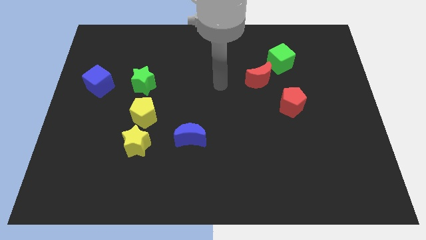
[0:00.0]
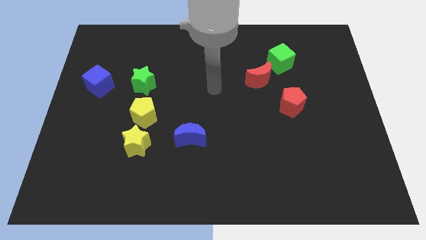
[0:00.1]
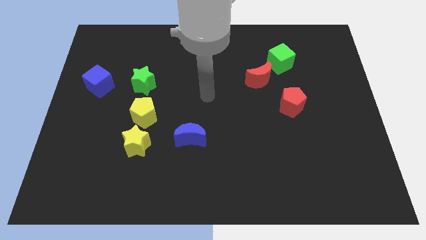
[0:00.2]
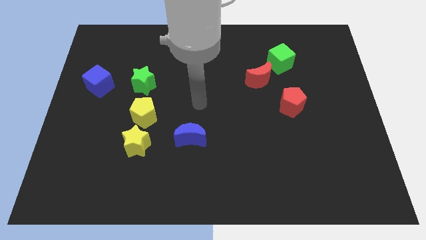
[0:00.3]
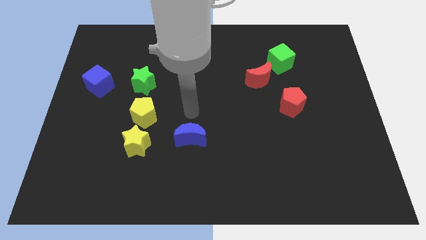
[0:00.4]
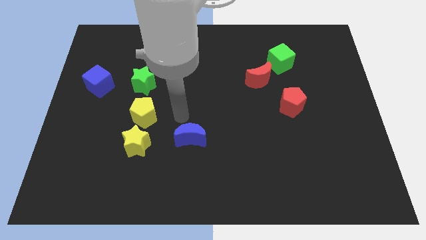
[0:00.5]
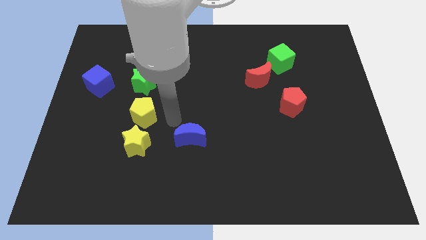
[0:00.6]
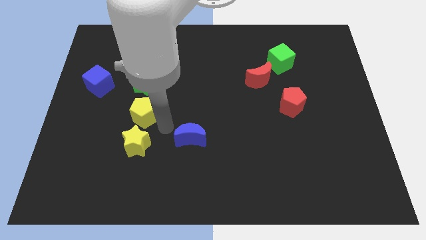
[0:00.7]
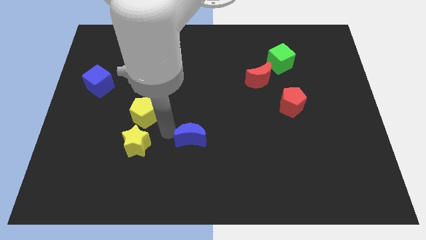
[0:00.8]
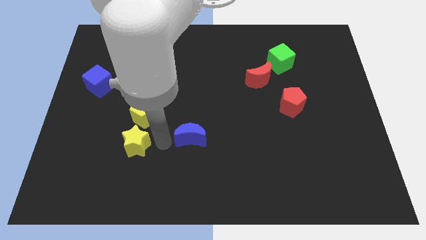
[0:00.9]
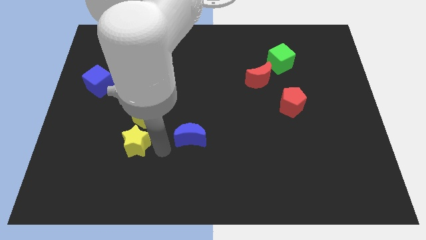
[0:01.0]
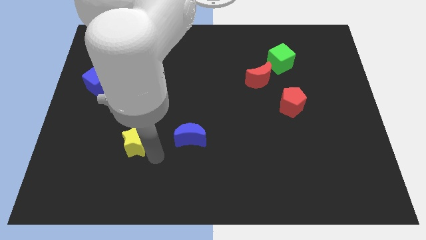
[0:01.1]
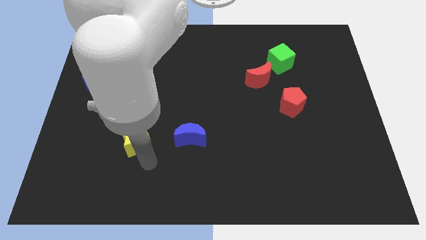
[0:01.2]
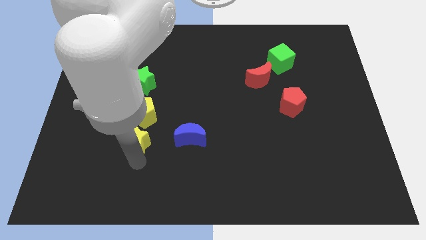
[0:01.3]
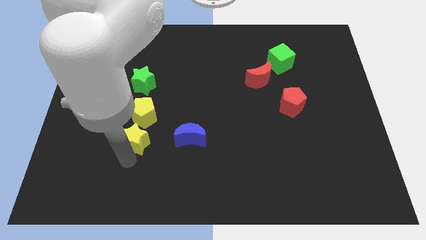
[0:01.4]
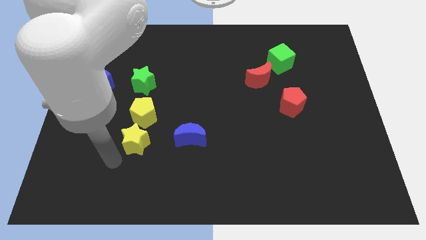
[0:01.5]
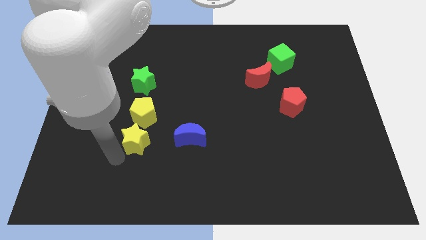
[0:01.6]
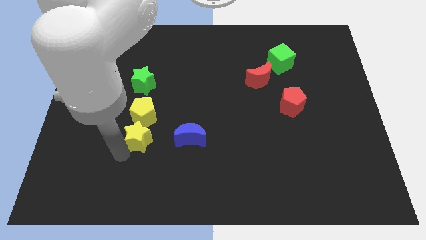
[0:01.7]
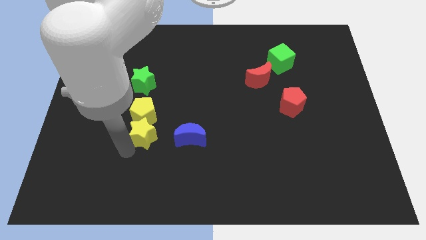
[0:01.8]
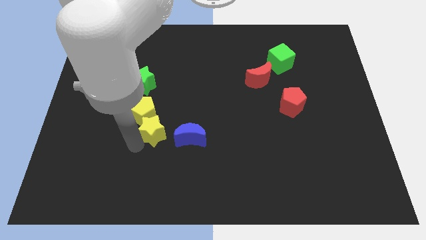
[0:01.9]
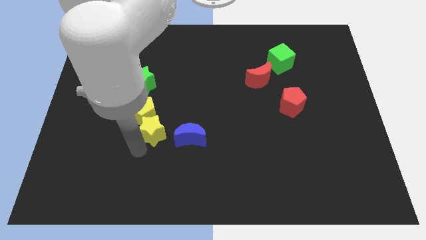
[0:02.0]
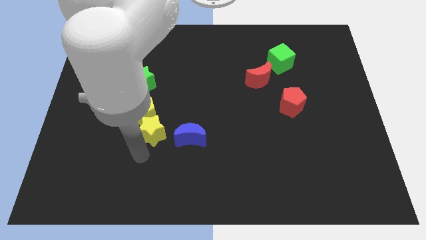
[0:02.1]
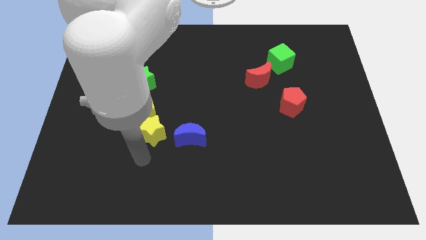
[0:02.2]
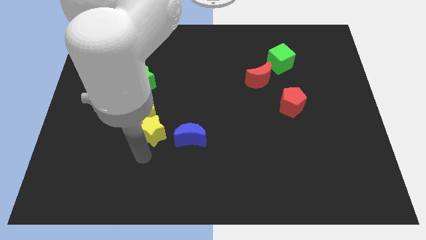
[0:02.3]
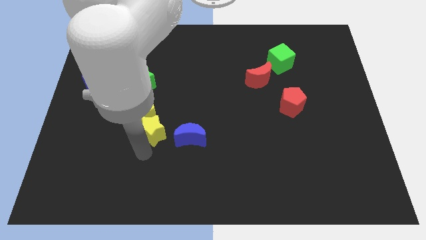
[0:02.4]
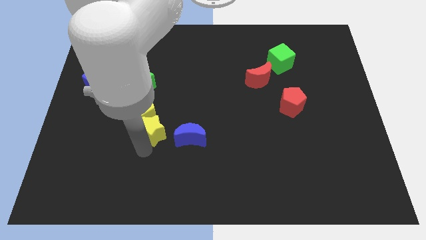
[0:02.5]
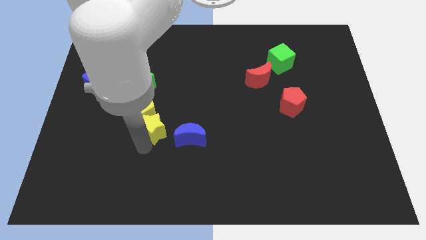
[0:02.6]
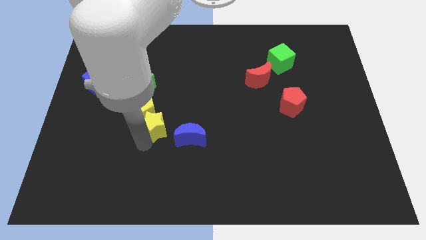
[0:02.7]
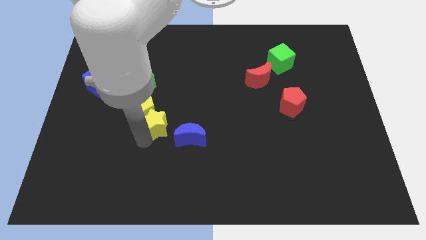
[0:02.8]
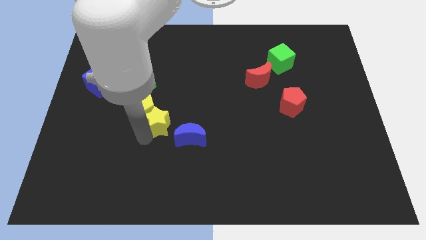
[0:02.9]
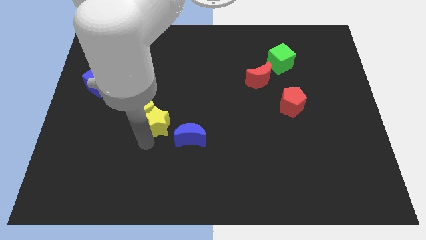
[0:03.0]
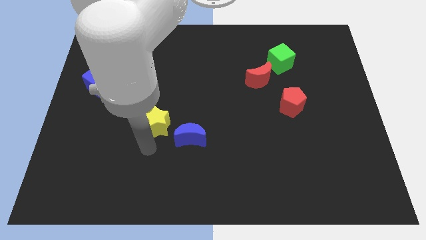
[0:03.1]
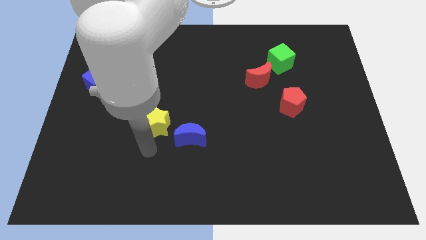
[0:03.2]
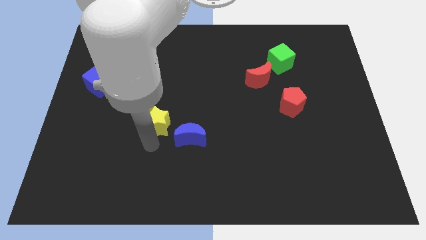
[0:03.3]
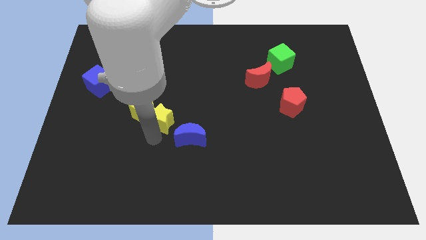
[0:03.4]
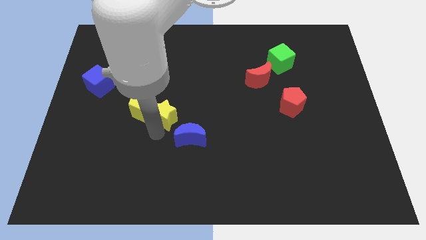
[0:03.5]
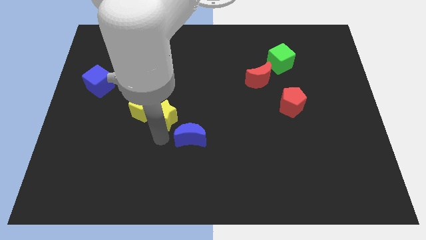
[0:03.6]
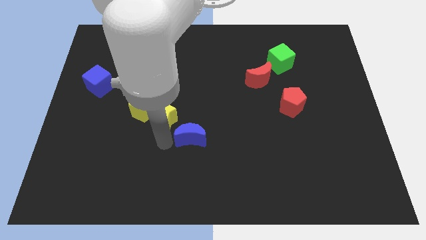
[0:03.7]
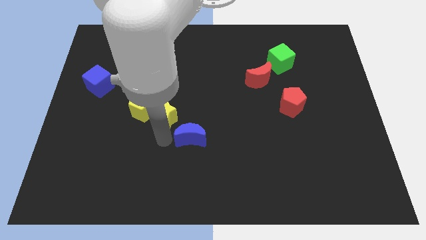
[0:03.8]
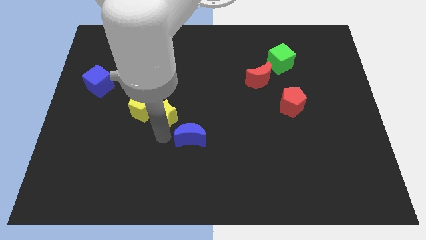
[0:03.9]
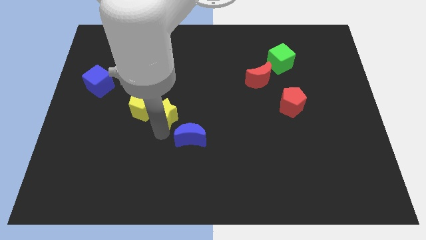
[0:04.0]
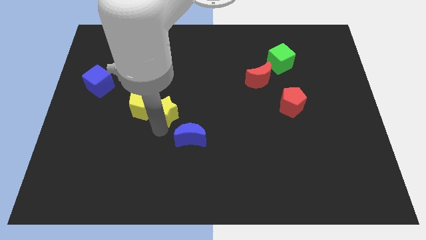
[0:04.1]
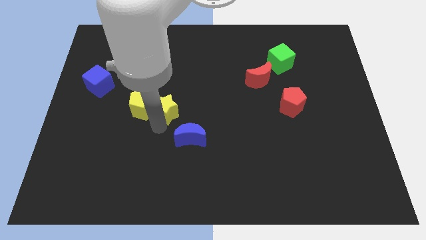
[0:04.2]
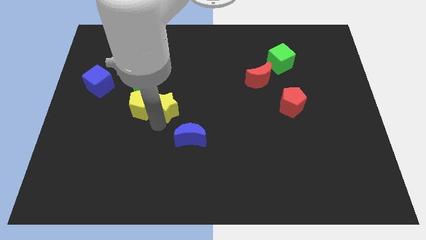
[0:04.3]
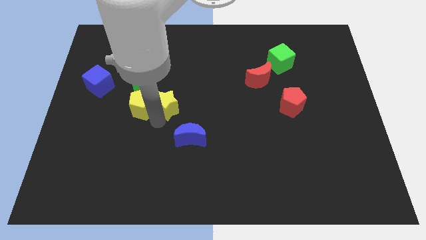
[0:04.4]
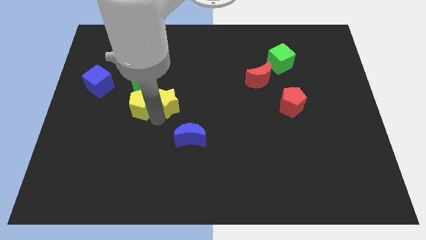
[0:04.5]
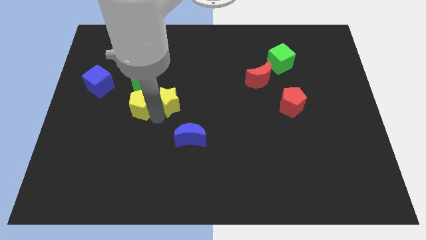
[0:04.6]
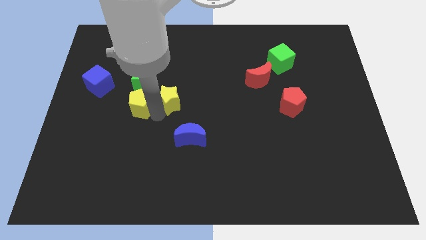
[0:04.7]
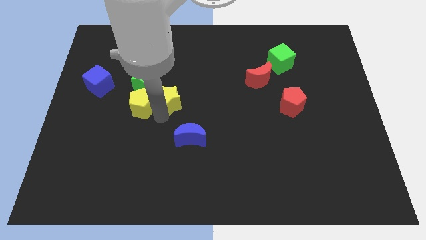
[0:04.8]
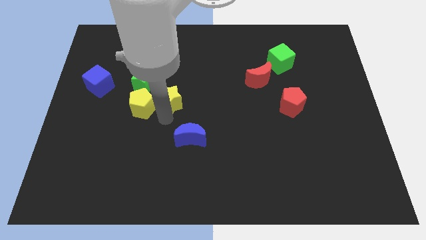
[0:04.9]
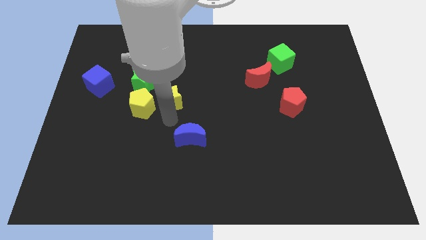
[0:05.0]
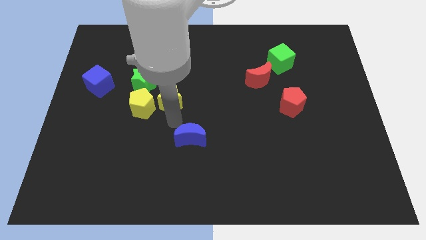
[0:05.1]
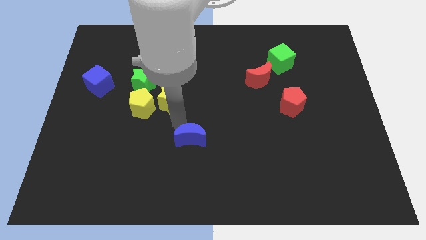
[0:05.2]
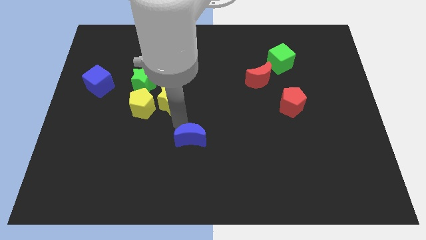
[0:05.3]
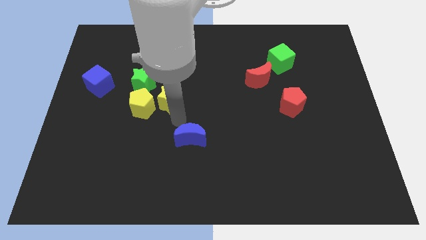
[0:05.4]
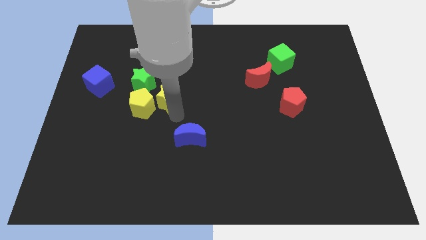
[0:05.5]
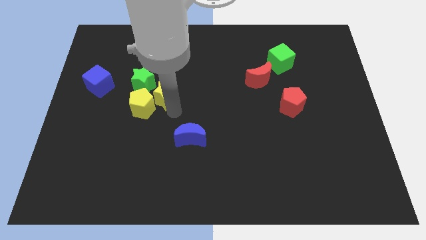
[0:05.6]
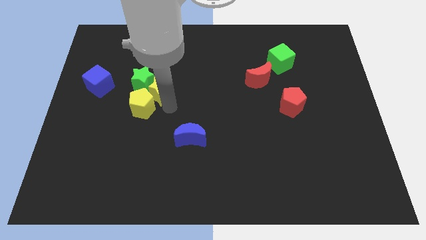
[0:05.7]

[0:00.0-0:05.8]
push the yellow star to the top of the yellow pentagon

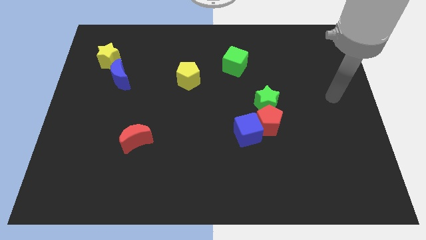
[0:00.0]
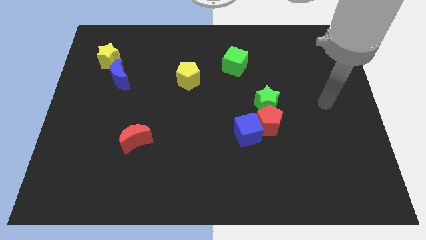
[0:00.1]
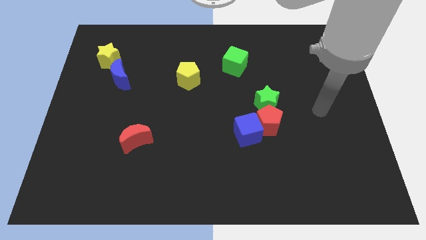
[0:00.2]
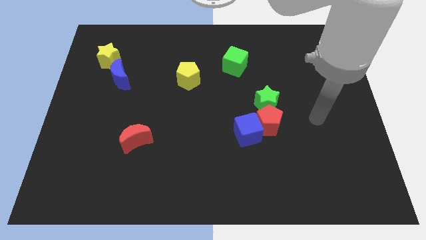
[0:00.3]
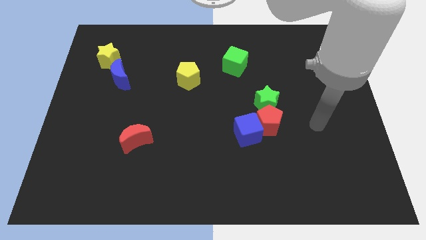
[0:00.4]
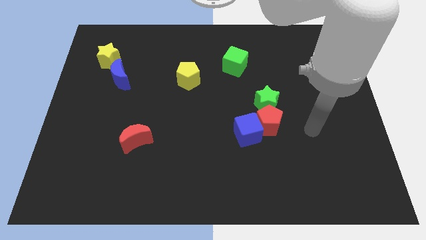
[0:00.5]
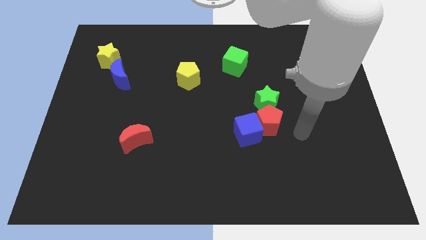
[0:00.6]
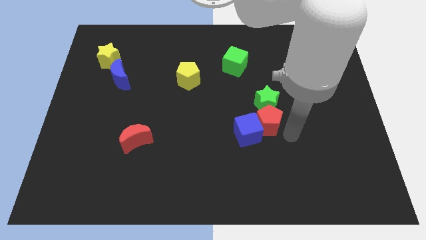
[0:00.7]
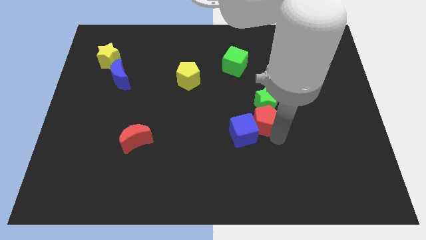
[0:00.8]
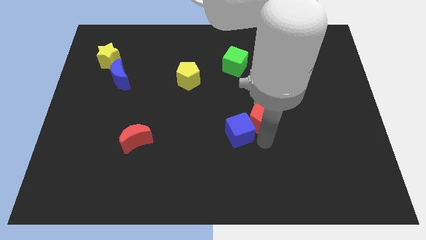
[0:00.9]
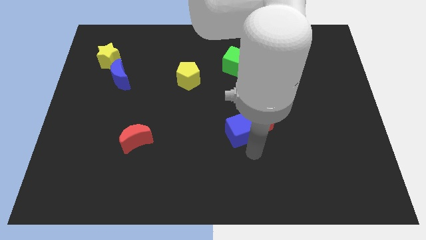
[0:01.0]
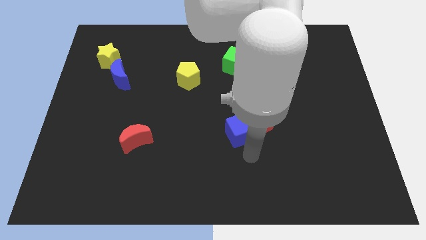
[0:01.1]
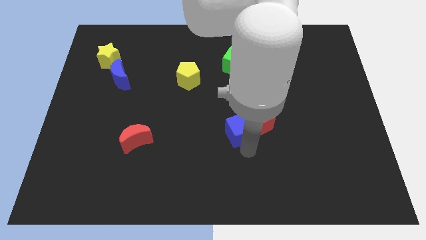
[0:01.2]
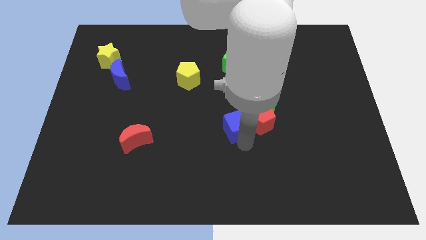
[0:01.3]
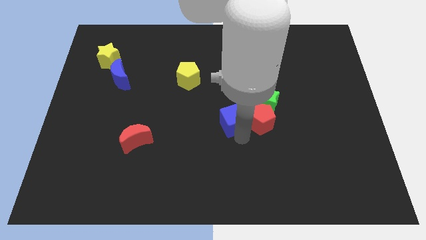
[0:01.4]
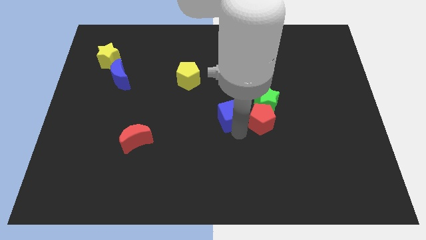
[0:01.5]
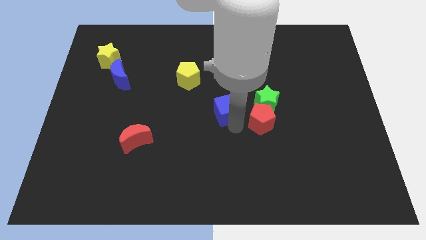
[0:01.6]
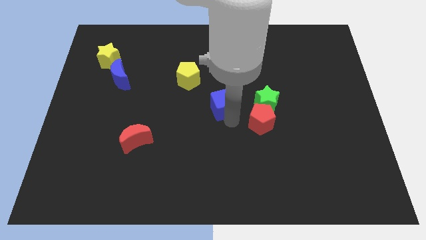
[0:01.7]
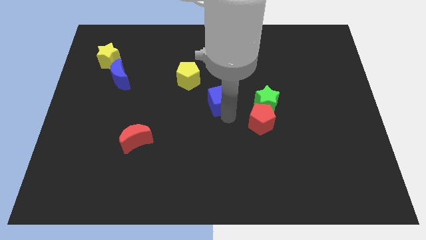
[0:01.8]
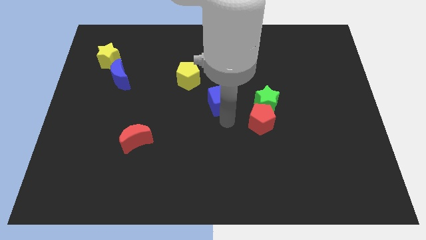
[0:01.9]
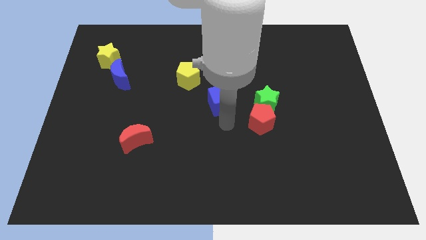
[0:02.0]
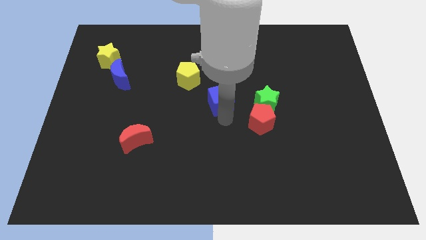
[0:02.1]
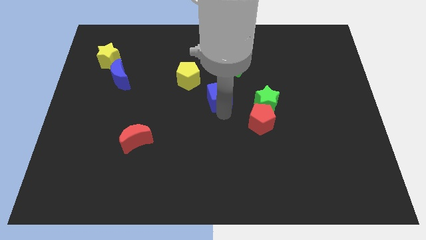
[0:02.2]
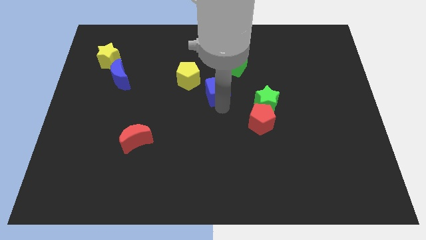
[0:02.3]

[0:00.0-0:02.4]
slide the blue cube diagonally down and to the left of the green cube
